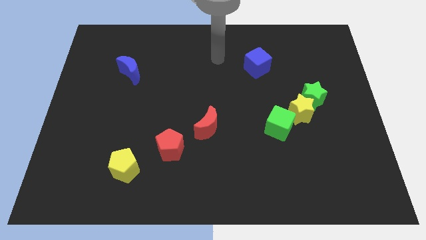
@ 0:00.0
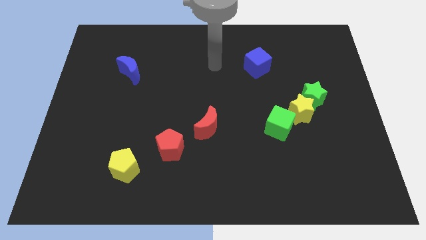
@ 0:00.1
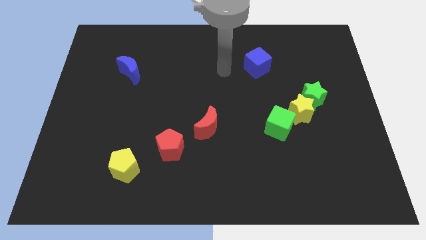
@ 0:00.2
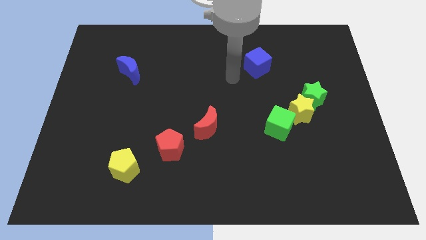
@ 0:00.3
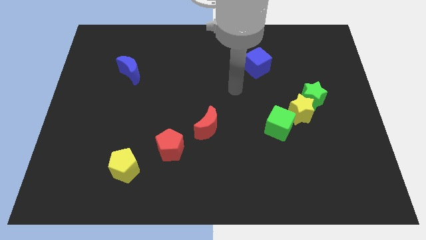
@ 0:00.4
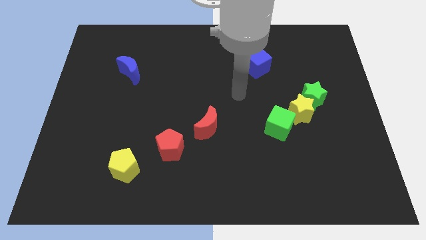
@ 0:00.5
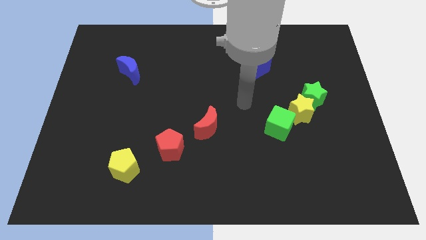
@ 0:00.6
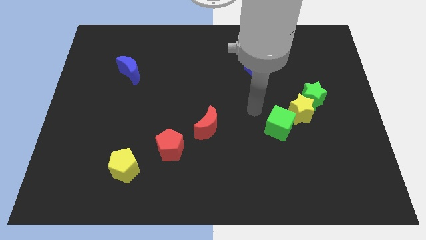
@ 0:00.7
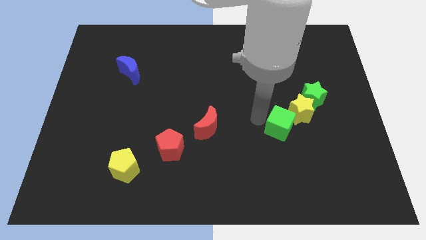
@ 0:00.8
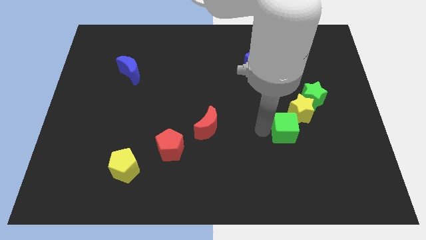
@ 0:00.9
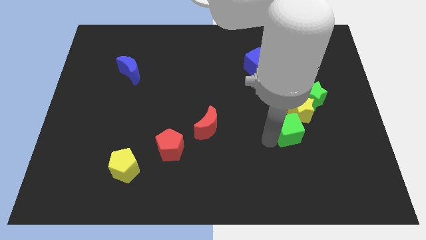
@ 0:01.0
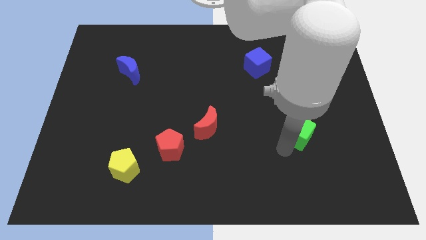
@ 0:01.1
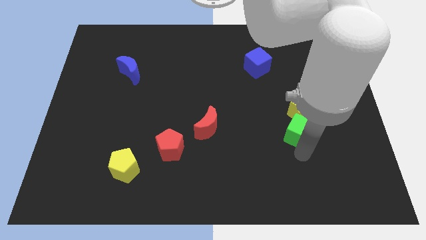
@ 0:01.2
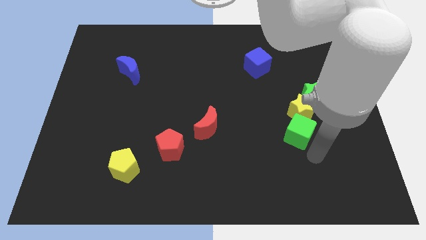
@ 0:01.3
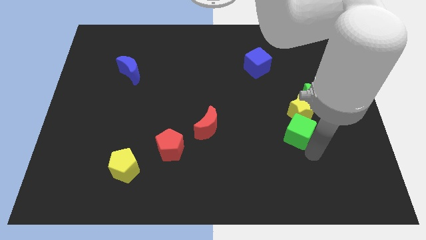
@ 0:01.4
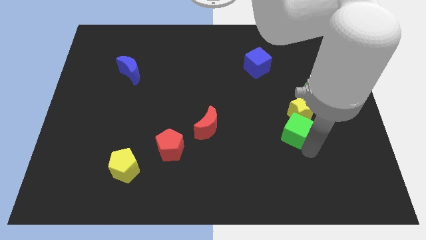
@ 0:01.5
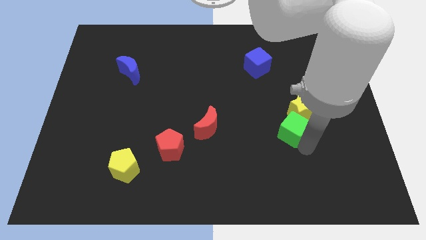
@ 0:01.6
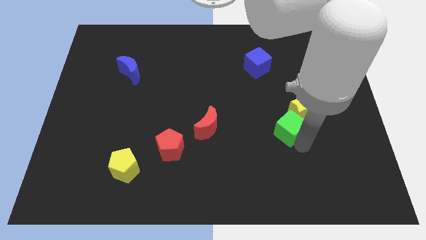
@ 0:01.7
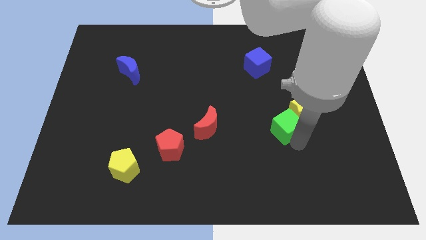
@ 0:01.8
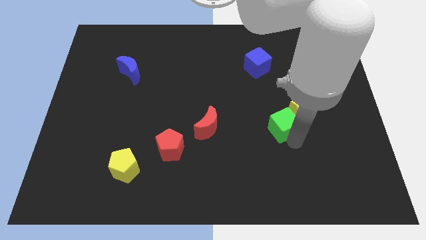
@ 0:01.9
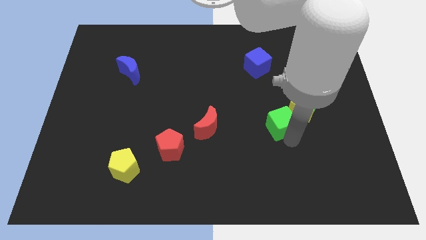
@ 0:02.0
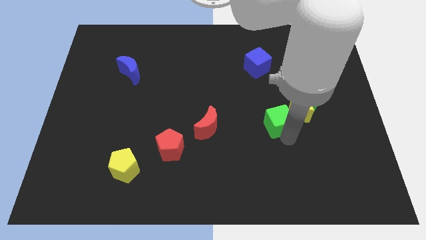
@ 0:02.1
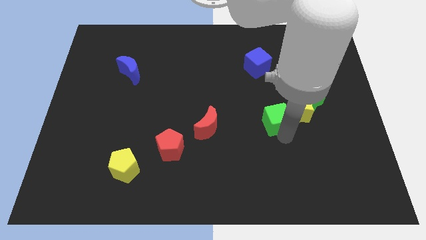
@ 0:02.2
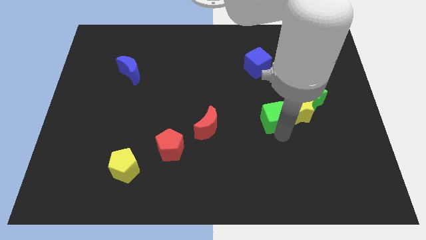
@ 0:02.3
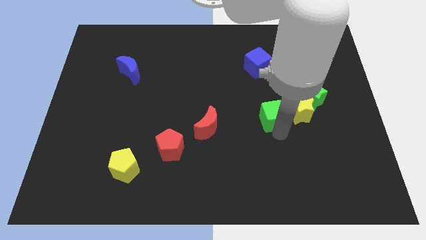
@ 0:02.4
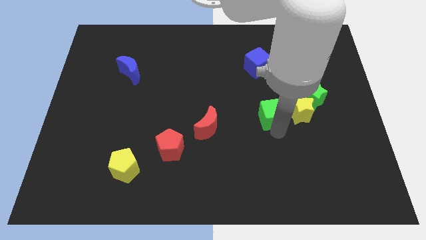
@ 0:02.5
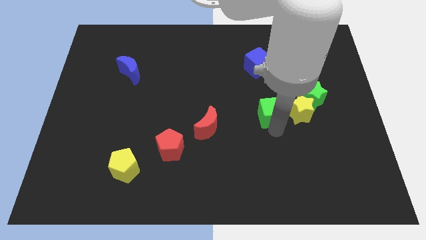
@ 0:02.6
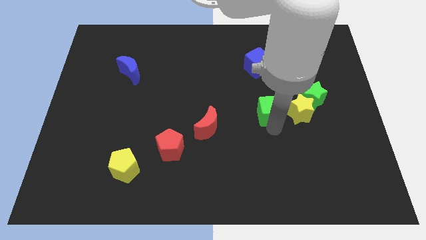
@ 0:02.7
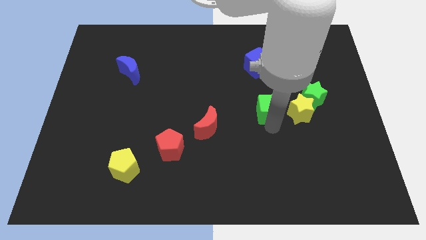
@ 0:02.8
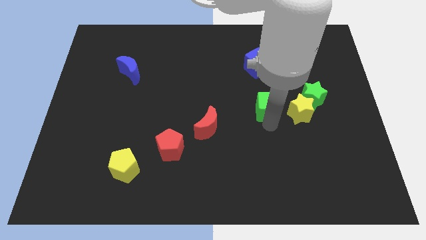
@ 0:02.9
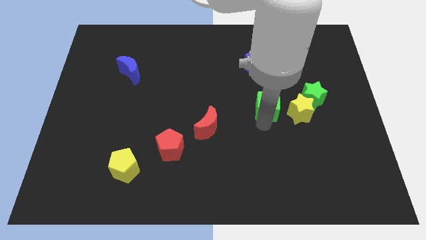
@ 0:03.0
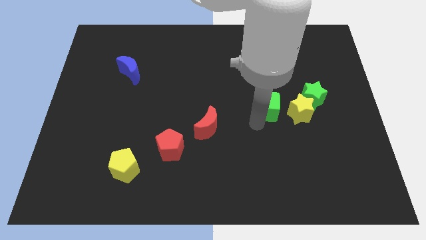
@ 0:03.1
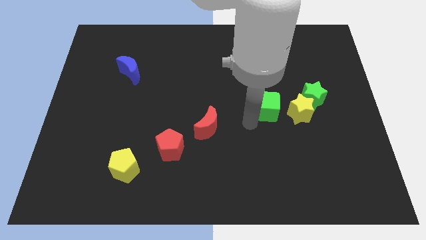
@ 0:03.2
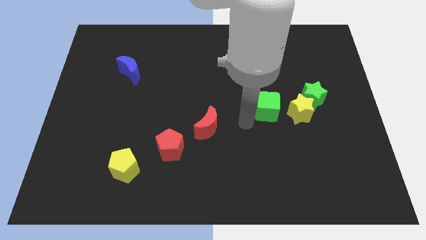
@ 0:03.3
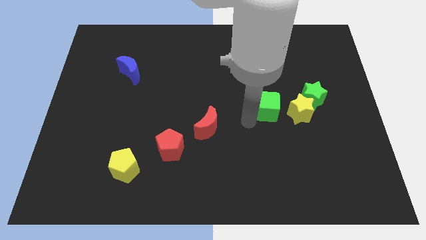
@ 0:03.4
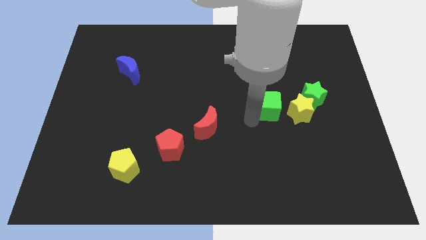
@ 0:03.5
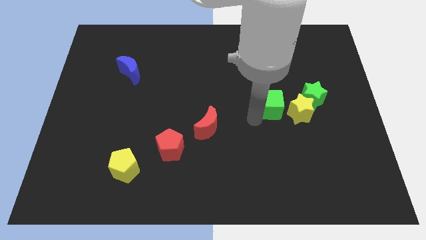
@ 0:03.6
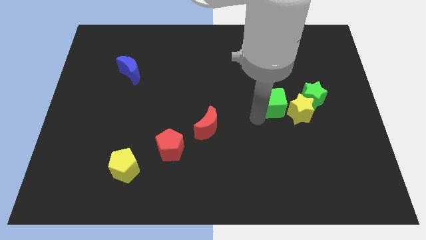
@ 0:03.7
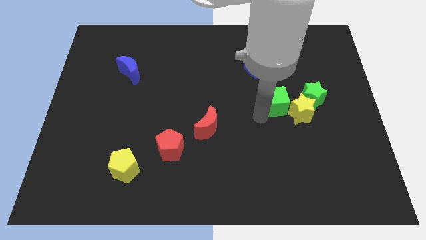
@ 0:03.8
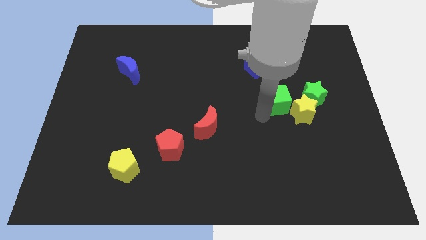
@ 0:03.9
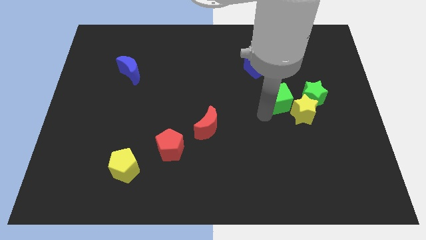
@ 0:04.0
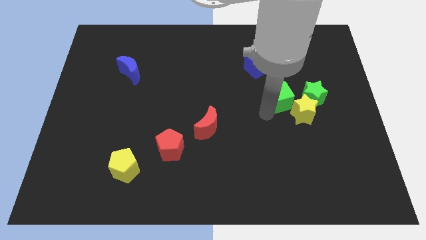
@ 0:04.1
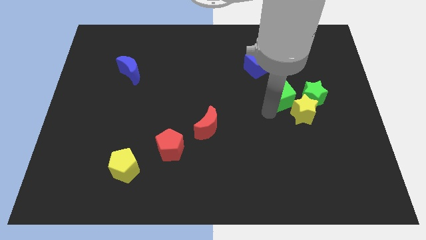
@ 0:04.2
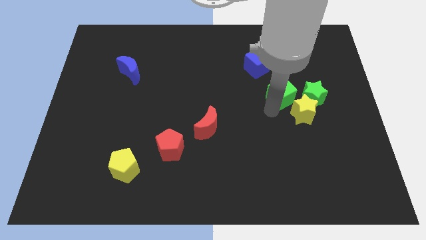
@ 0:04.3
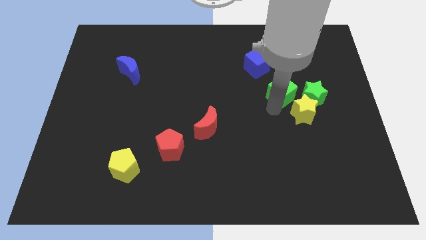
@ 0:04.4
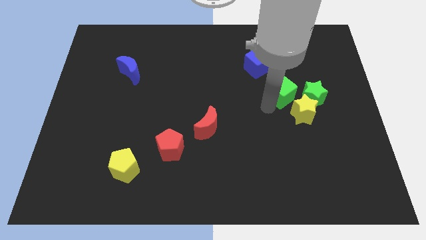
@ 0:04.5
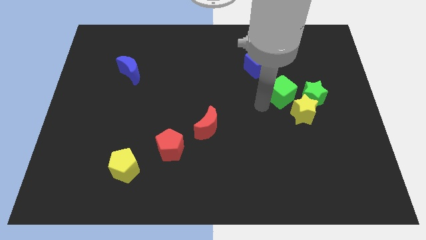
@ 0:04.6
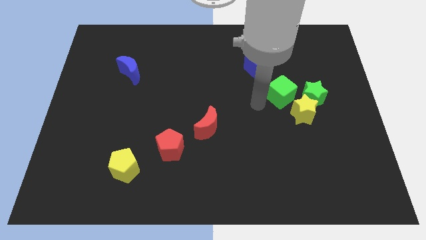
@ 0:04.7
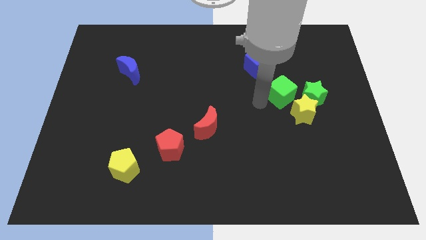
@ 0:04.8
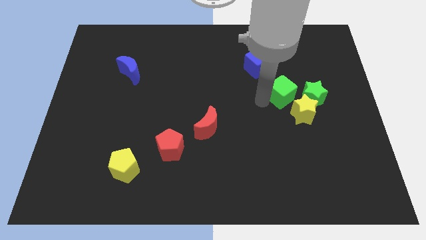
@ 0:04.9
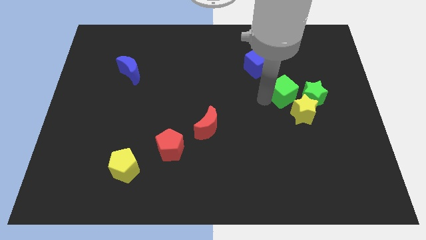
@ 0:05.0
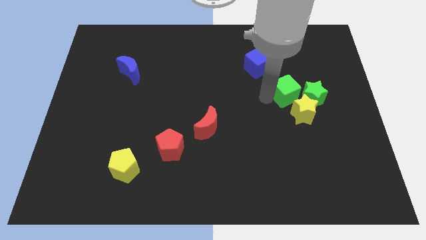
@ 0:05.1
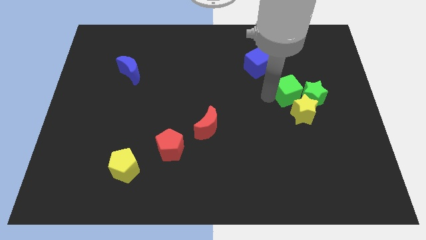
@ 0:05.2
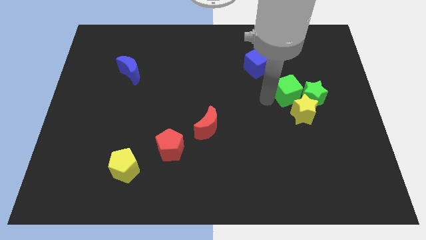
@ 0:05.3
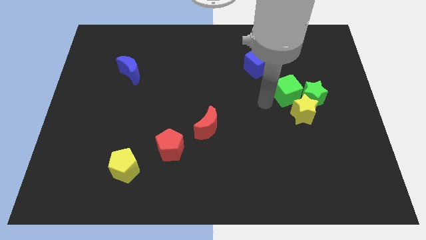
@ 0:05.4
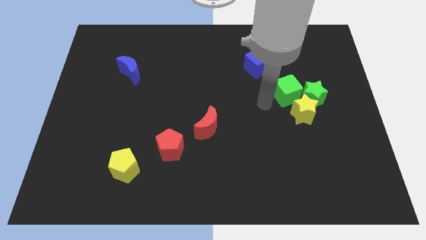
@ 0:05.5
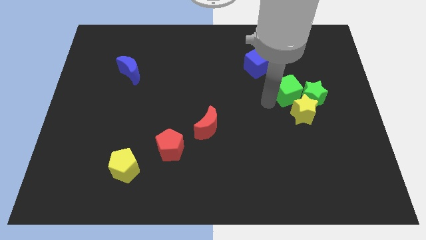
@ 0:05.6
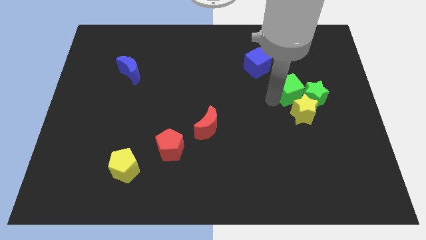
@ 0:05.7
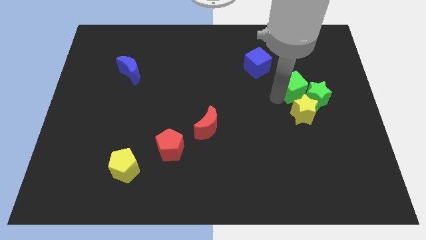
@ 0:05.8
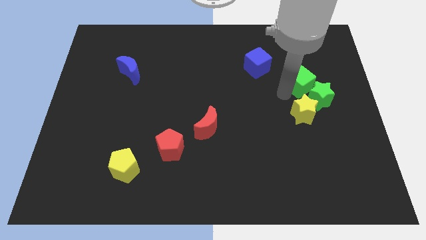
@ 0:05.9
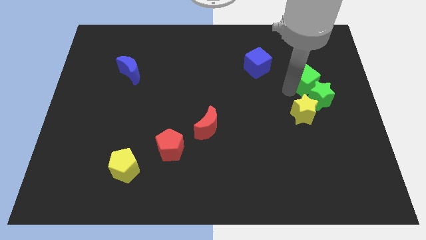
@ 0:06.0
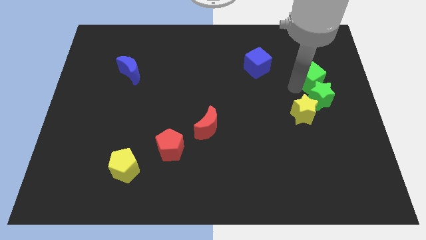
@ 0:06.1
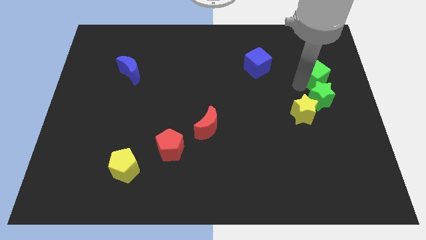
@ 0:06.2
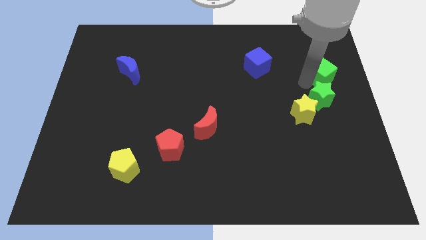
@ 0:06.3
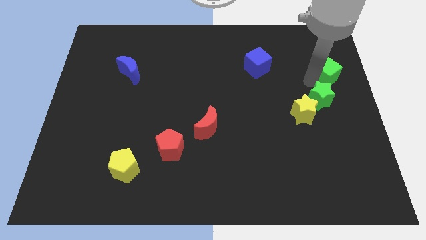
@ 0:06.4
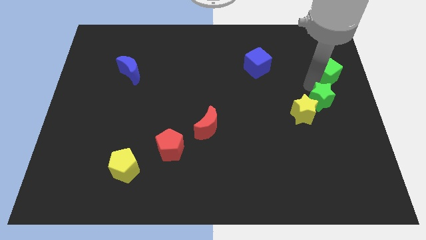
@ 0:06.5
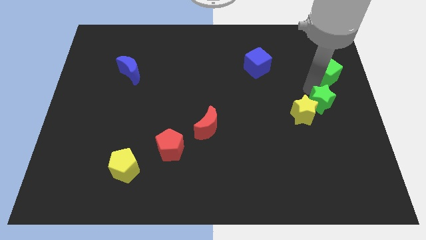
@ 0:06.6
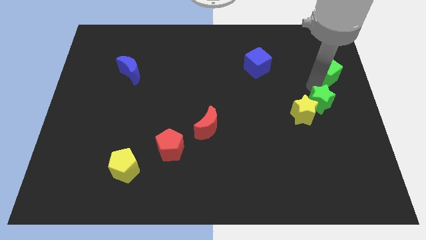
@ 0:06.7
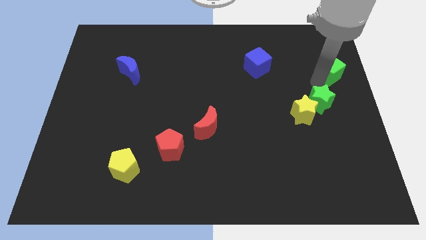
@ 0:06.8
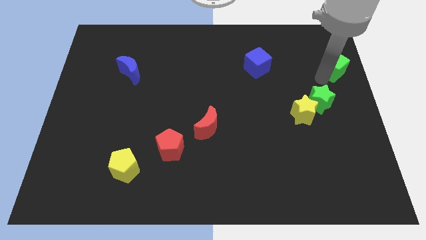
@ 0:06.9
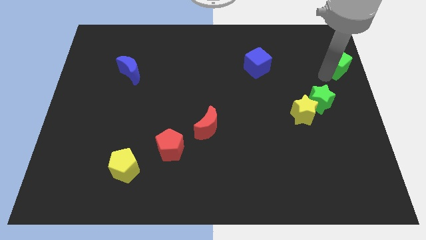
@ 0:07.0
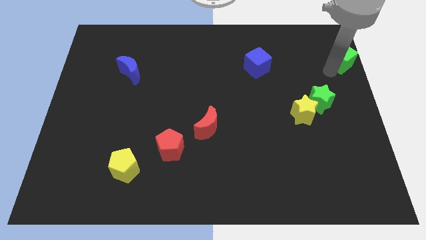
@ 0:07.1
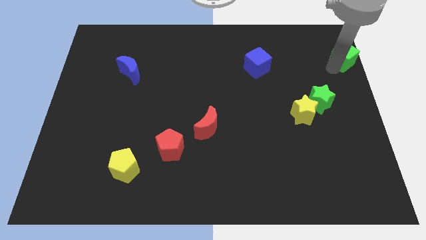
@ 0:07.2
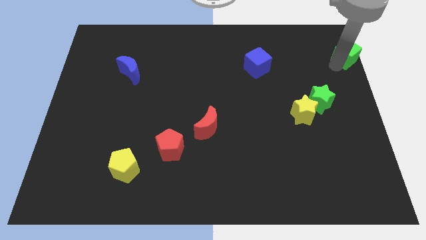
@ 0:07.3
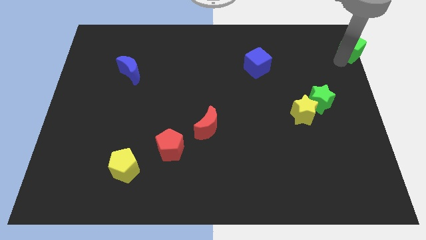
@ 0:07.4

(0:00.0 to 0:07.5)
slide the green cube to the upper right corner

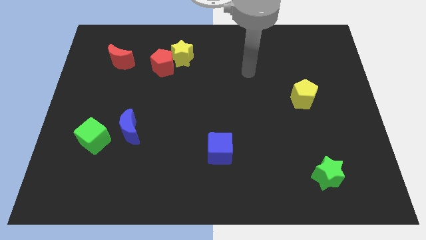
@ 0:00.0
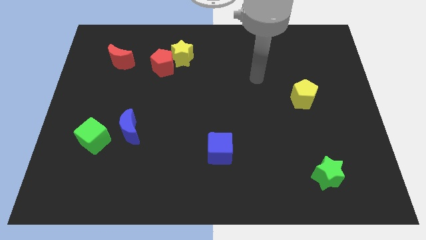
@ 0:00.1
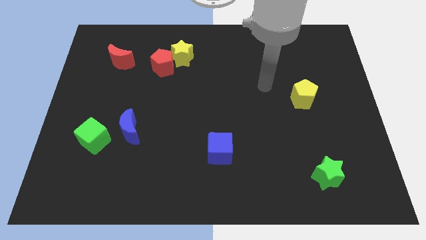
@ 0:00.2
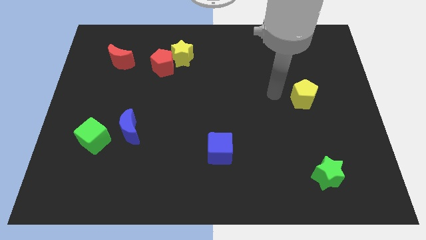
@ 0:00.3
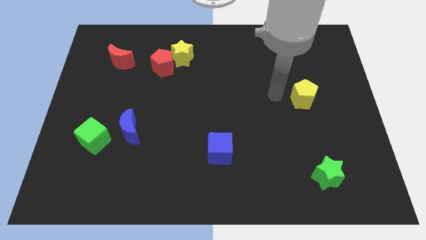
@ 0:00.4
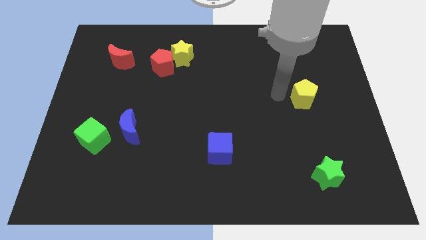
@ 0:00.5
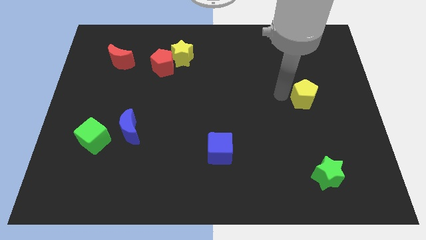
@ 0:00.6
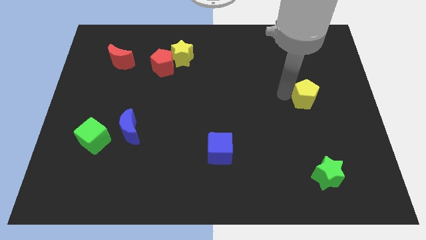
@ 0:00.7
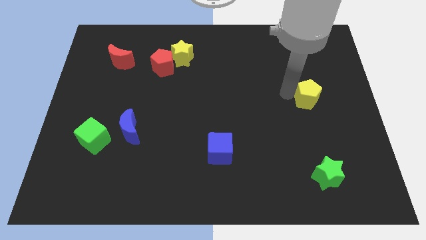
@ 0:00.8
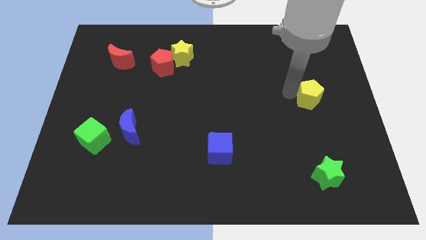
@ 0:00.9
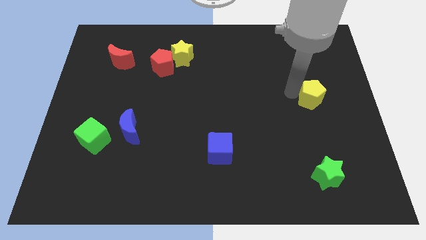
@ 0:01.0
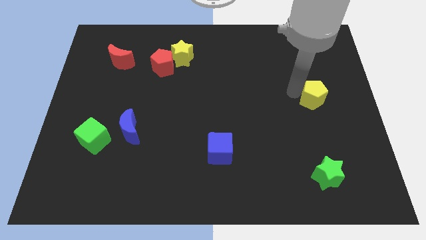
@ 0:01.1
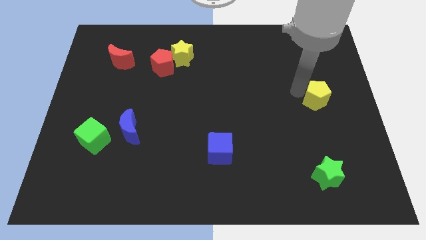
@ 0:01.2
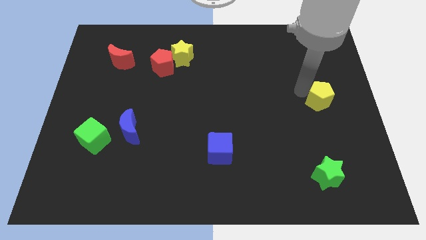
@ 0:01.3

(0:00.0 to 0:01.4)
slide the yellow pentagon to the center right
